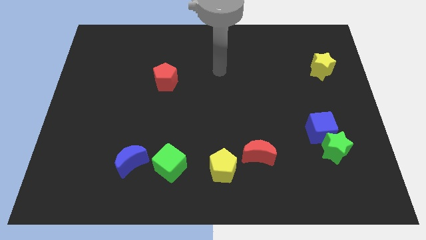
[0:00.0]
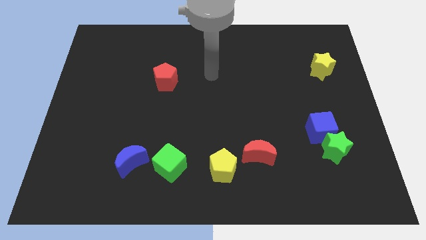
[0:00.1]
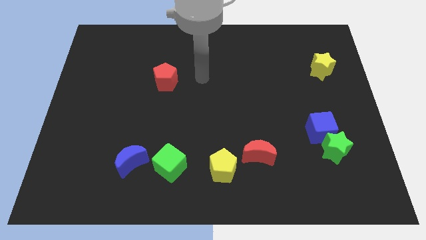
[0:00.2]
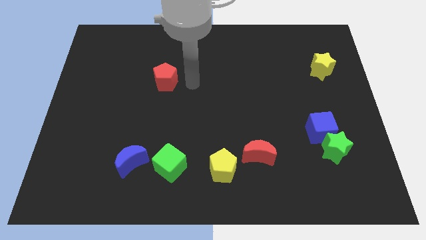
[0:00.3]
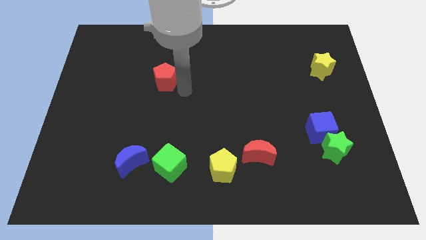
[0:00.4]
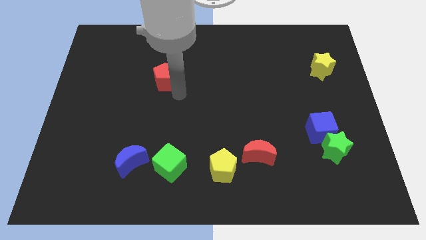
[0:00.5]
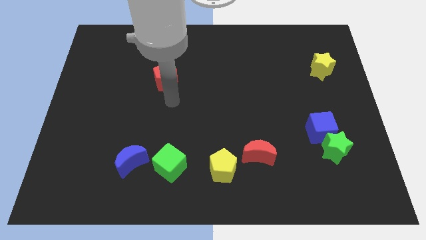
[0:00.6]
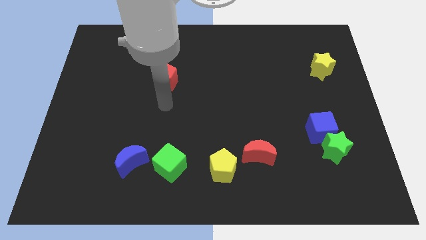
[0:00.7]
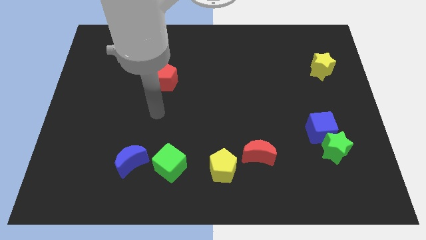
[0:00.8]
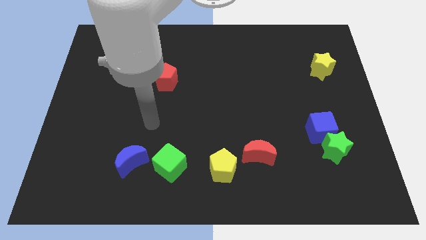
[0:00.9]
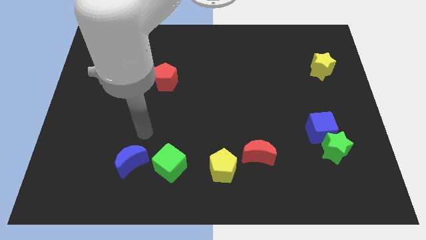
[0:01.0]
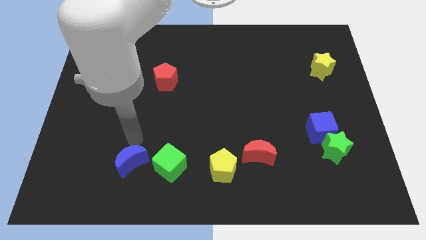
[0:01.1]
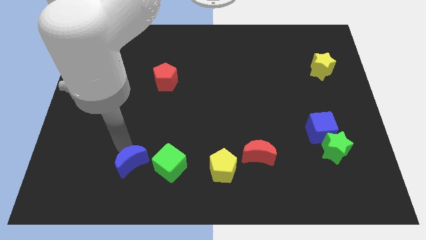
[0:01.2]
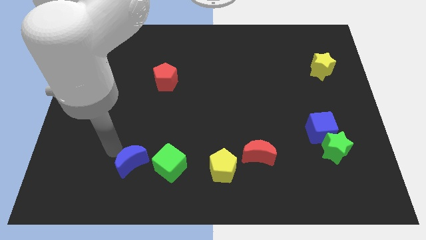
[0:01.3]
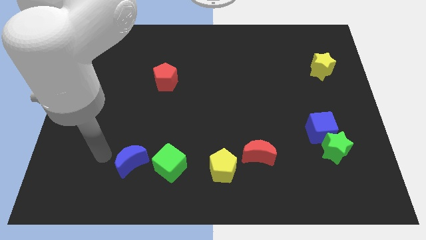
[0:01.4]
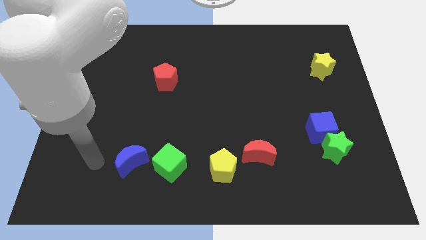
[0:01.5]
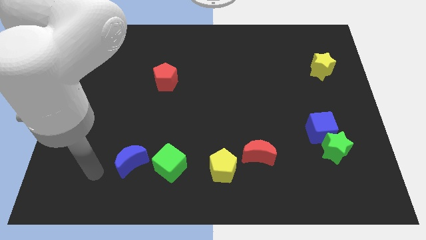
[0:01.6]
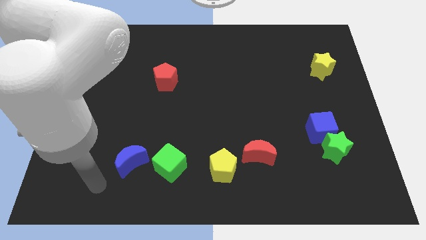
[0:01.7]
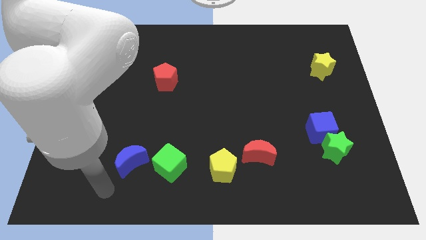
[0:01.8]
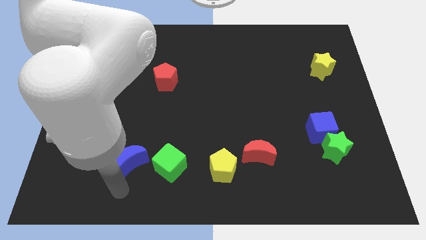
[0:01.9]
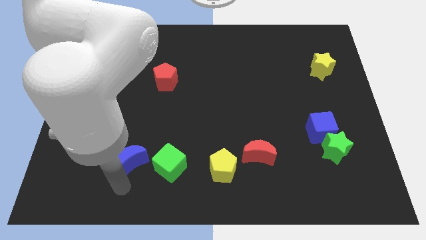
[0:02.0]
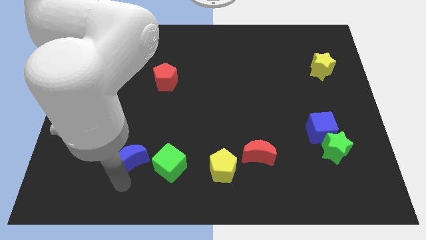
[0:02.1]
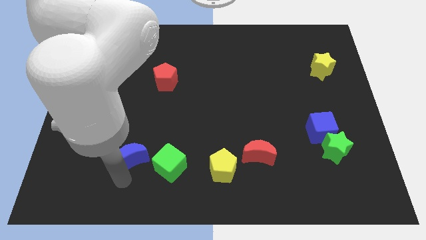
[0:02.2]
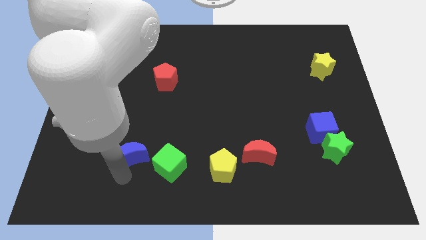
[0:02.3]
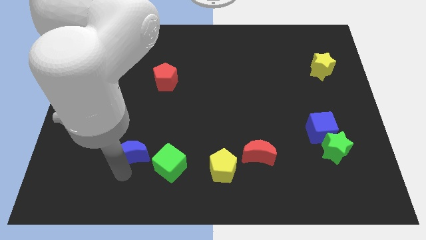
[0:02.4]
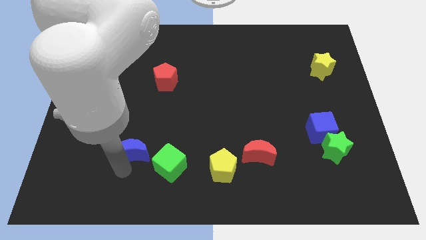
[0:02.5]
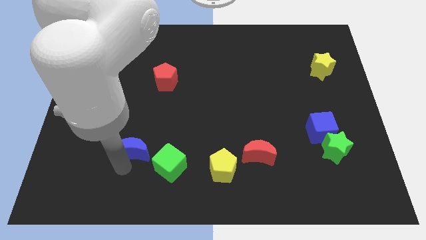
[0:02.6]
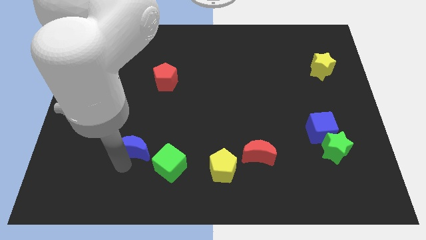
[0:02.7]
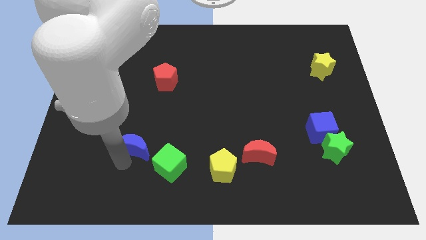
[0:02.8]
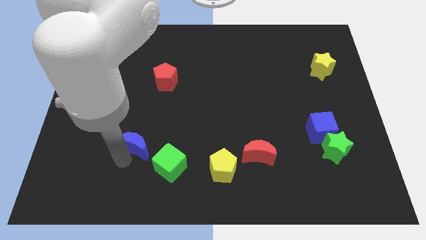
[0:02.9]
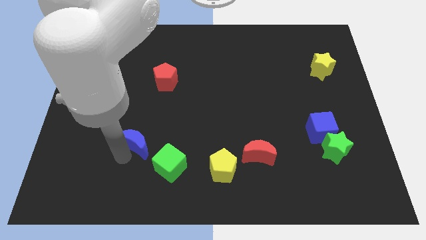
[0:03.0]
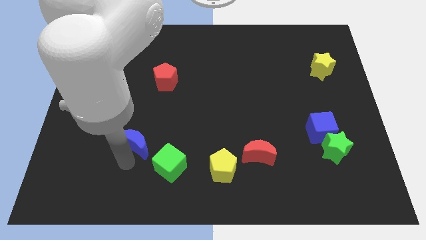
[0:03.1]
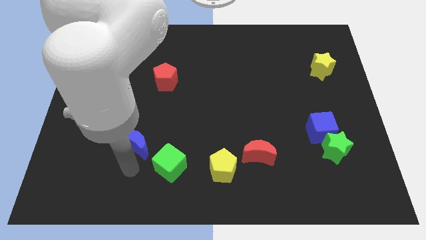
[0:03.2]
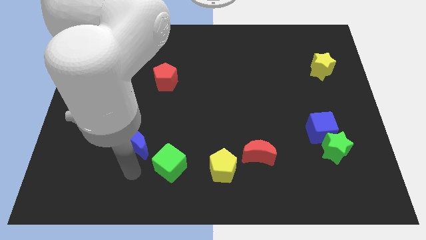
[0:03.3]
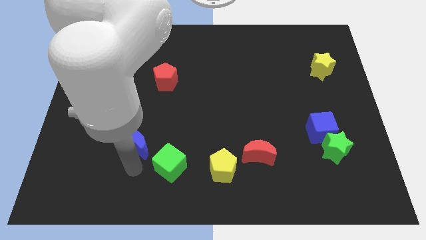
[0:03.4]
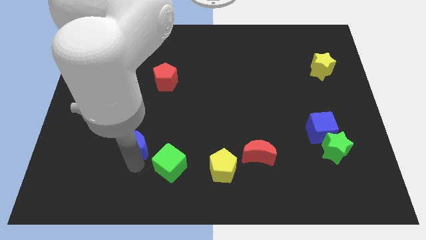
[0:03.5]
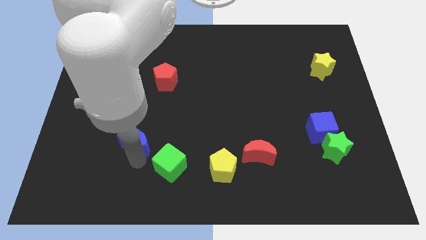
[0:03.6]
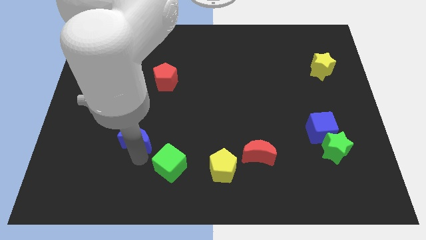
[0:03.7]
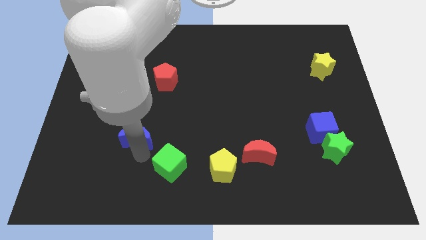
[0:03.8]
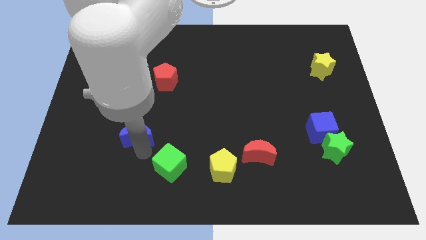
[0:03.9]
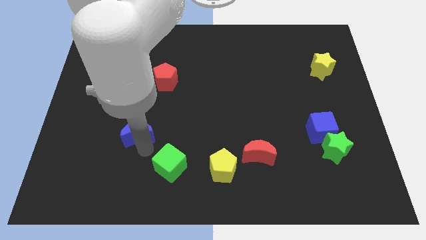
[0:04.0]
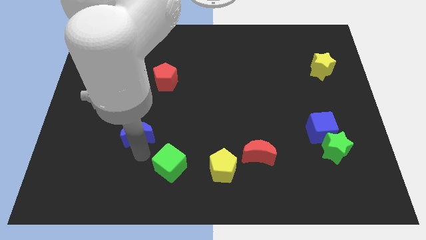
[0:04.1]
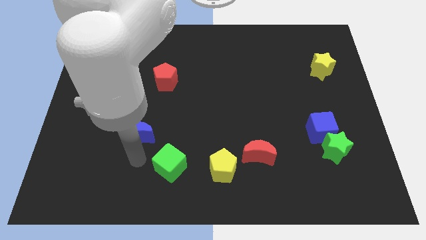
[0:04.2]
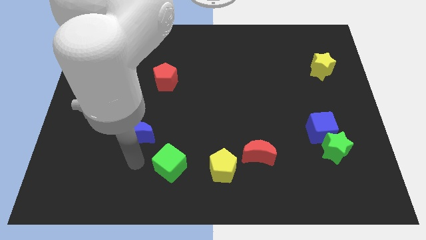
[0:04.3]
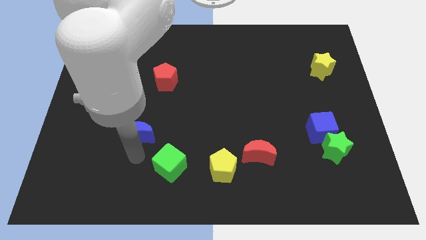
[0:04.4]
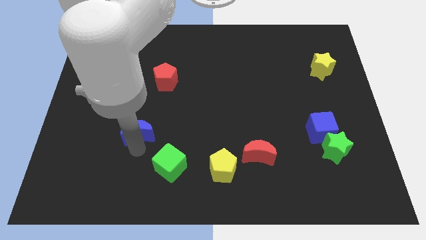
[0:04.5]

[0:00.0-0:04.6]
slide the blue moon up a bit

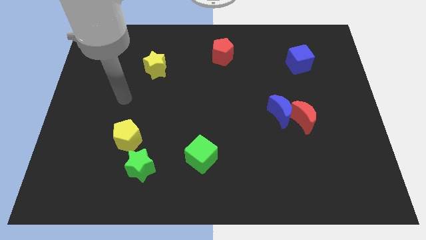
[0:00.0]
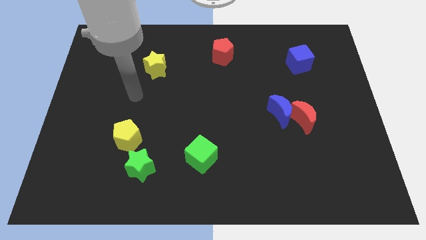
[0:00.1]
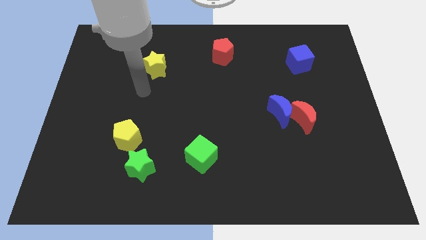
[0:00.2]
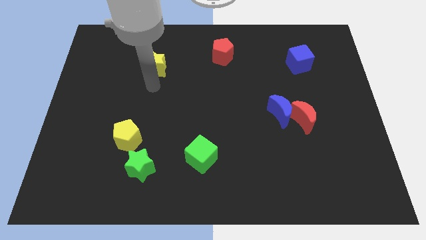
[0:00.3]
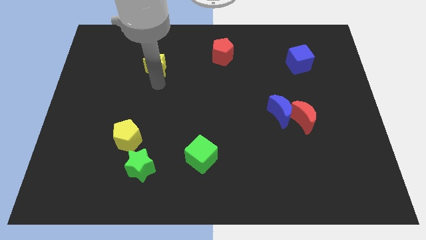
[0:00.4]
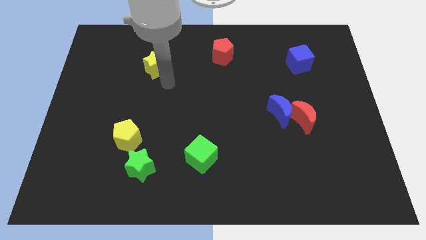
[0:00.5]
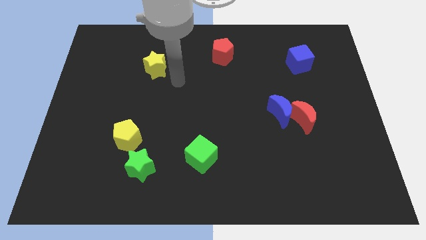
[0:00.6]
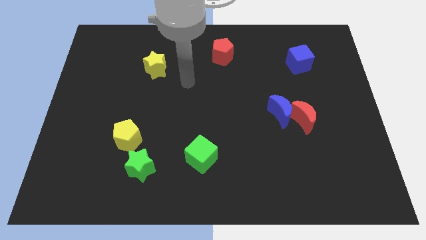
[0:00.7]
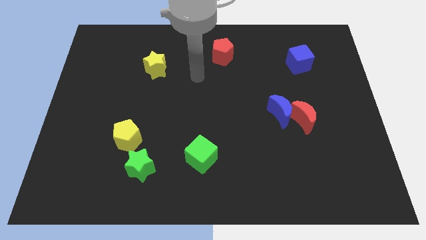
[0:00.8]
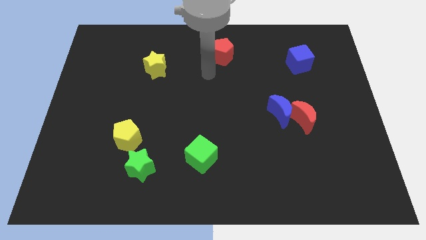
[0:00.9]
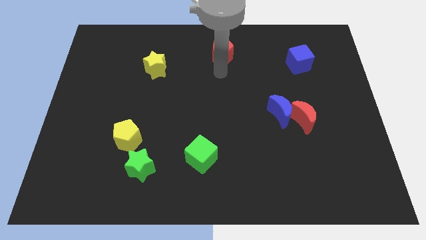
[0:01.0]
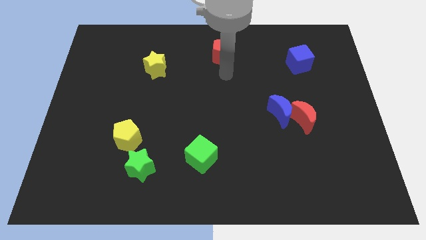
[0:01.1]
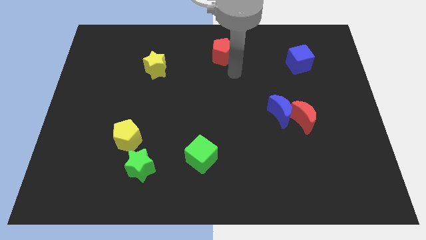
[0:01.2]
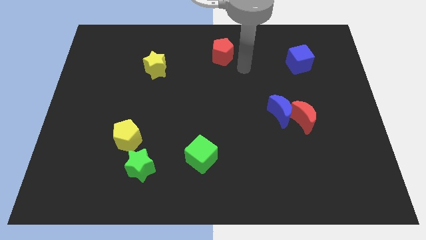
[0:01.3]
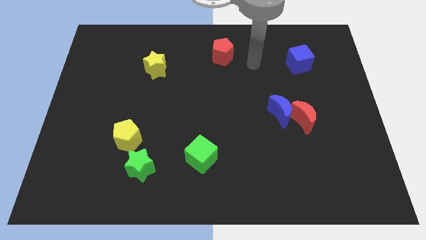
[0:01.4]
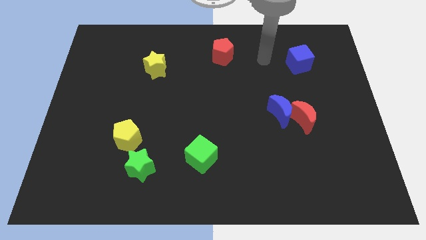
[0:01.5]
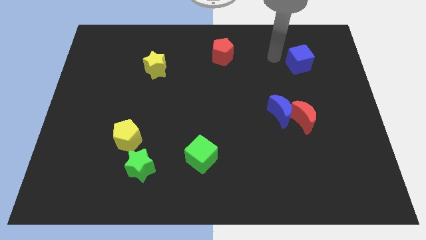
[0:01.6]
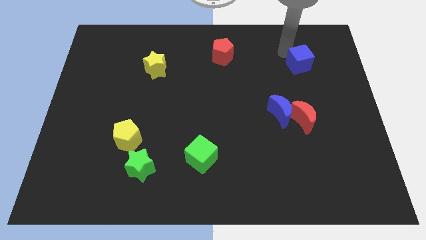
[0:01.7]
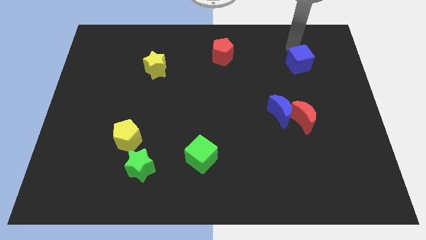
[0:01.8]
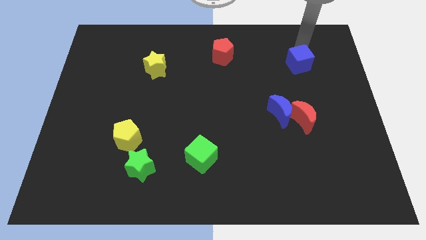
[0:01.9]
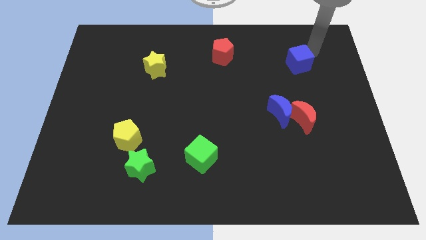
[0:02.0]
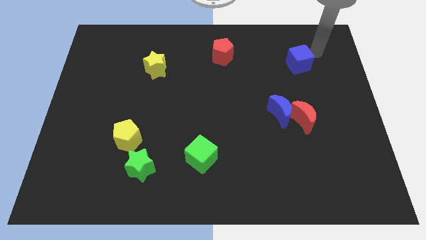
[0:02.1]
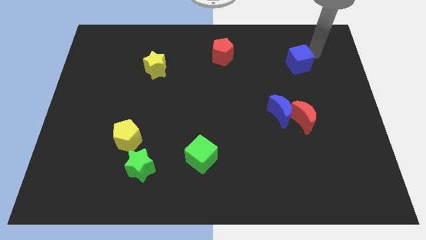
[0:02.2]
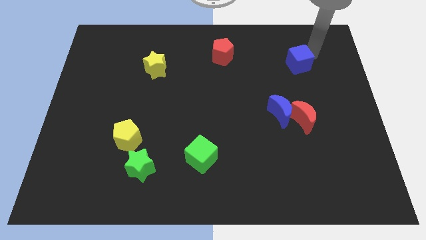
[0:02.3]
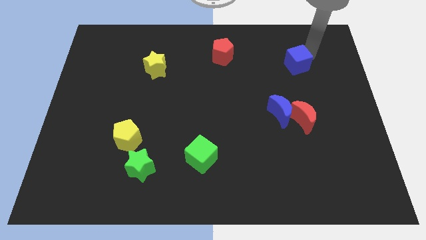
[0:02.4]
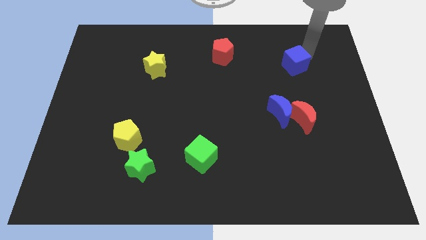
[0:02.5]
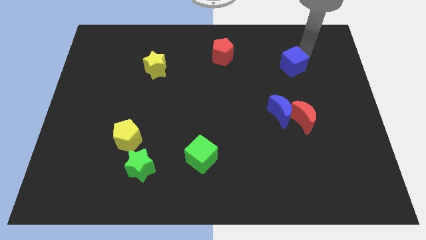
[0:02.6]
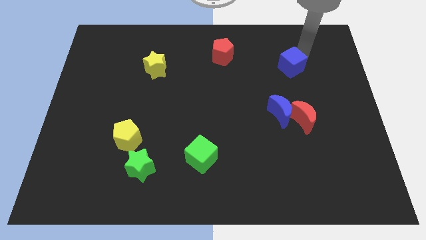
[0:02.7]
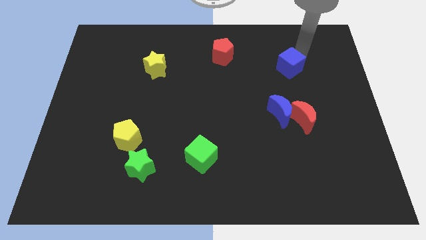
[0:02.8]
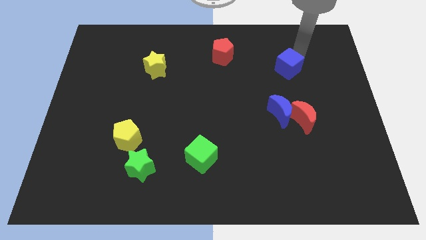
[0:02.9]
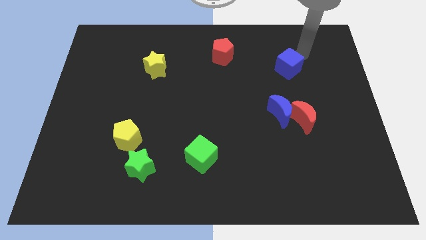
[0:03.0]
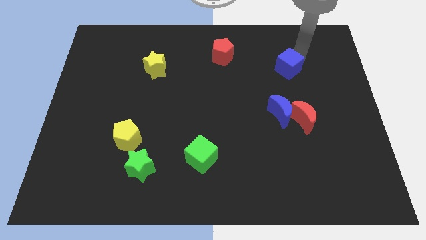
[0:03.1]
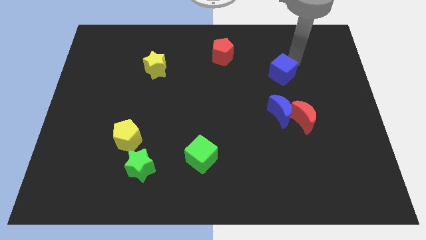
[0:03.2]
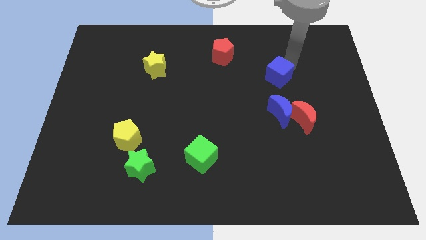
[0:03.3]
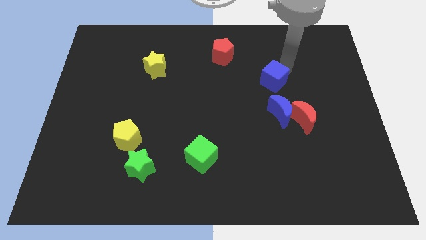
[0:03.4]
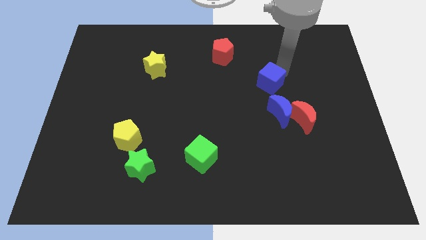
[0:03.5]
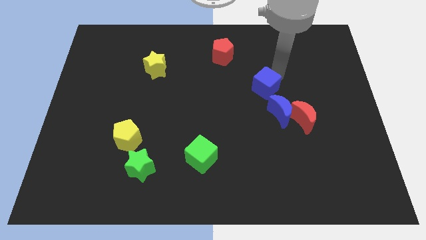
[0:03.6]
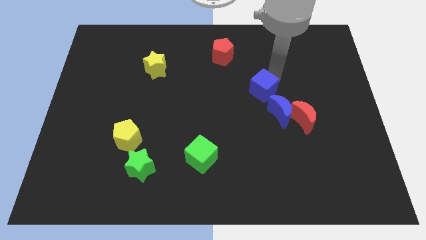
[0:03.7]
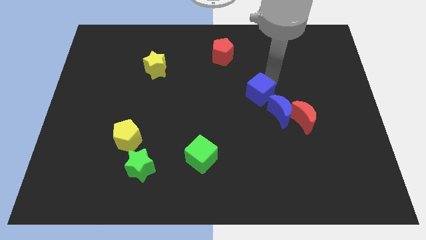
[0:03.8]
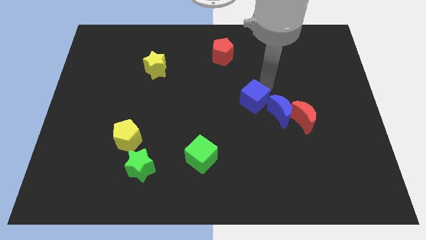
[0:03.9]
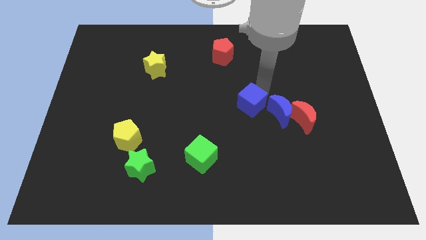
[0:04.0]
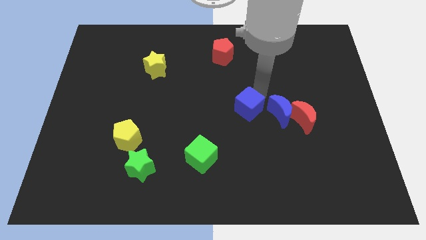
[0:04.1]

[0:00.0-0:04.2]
slide the blue cube diagonally downwards and left
